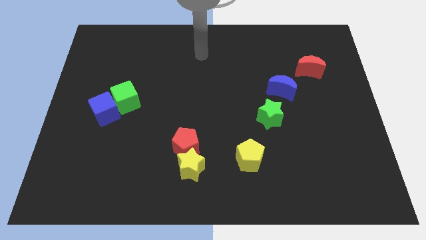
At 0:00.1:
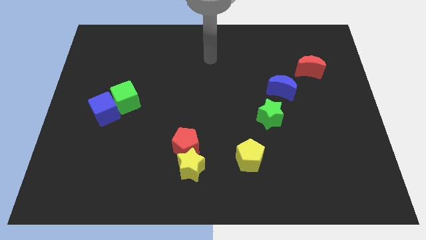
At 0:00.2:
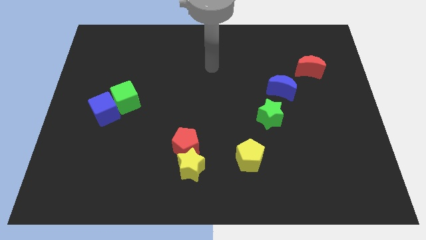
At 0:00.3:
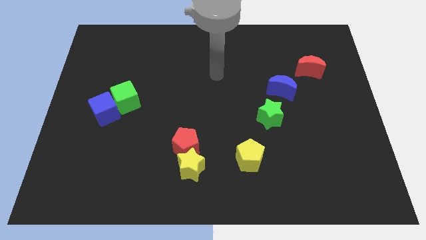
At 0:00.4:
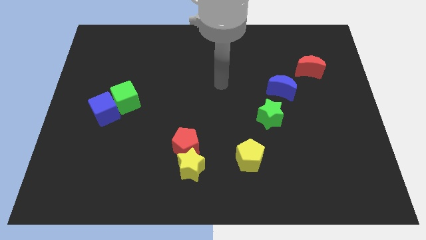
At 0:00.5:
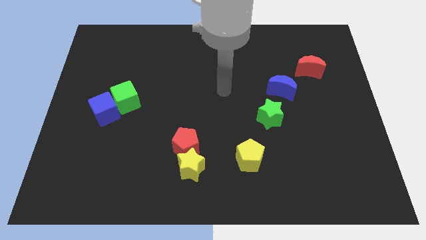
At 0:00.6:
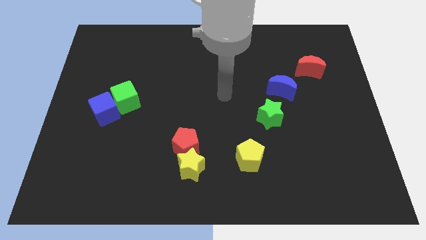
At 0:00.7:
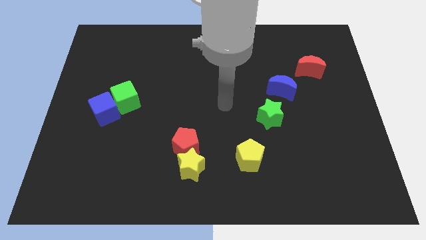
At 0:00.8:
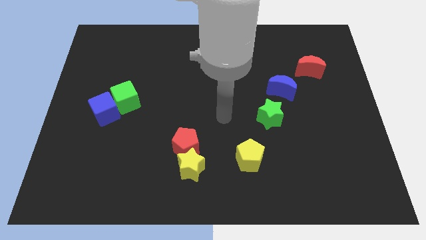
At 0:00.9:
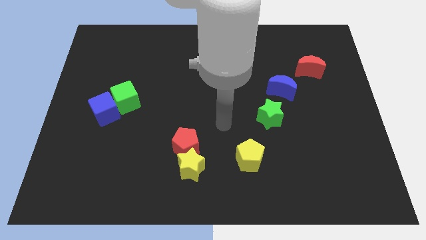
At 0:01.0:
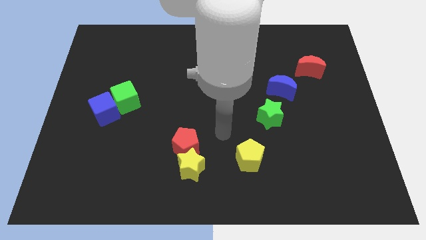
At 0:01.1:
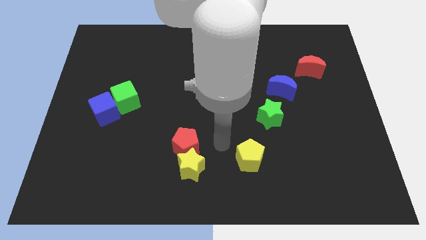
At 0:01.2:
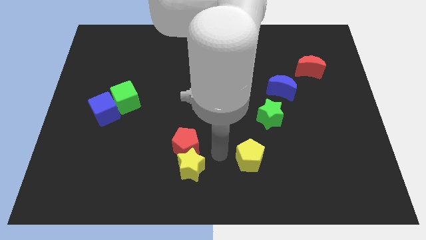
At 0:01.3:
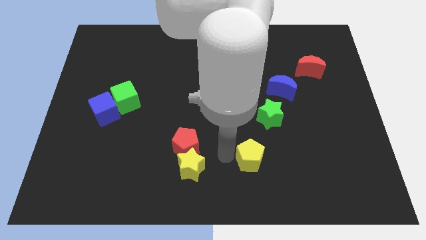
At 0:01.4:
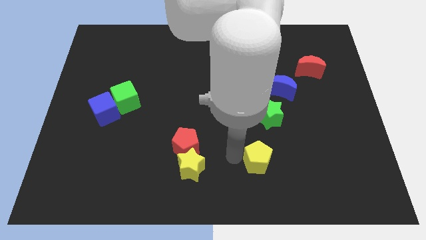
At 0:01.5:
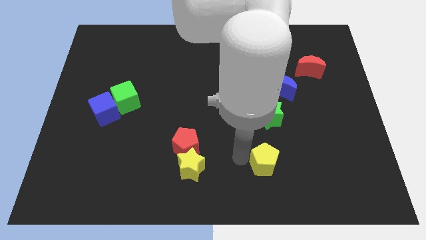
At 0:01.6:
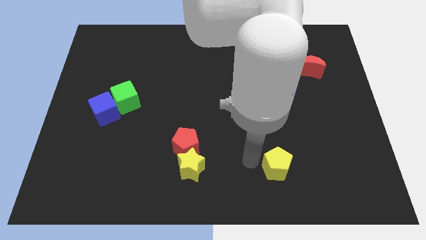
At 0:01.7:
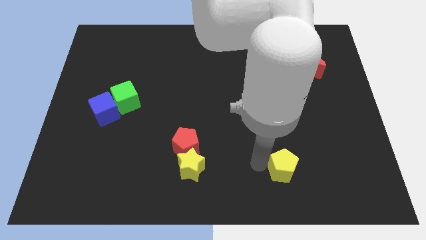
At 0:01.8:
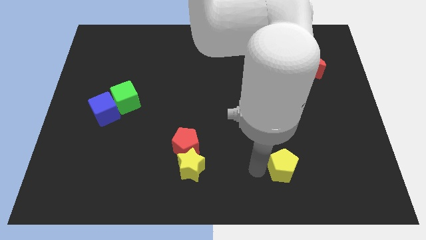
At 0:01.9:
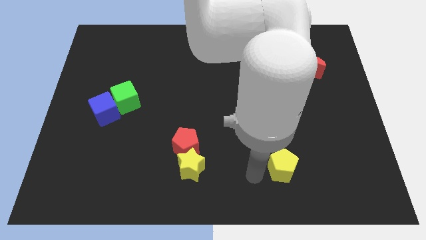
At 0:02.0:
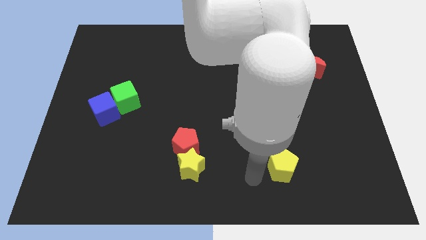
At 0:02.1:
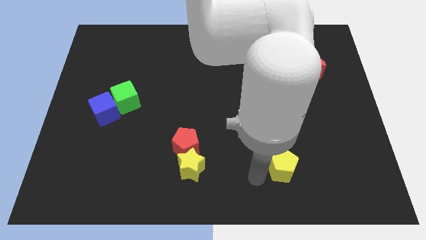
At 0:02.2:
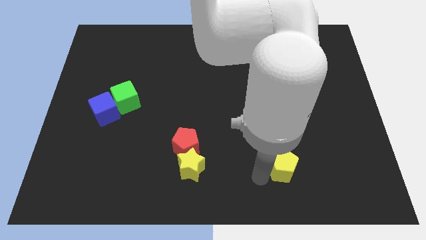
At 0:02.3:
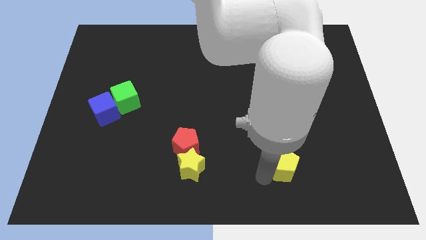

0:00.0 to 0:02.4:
push the yellow pentagon right a little bit

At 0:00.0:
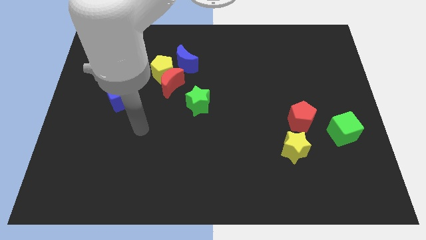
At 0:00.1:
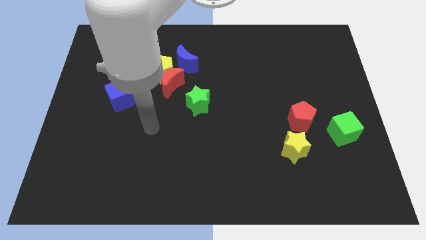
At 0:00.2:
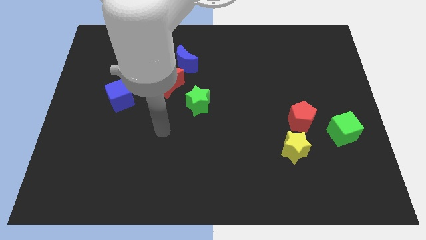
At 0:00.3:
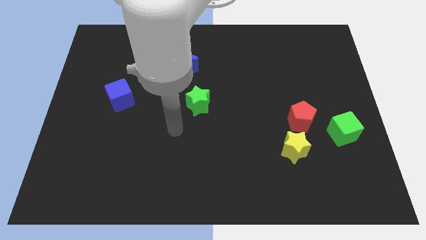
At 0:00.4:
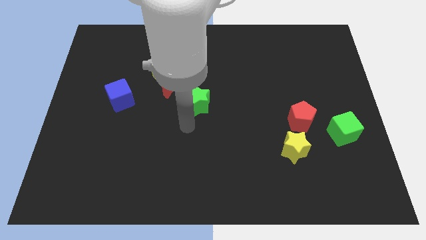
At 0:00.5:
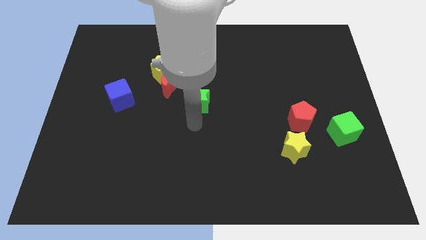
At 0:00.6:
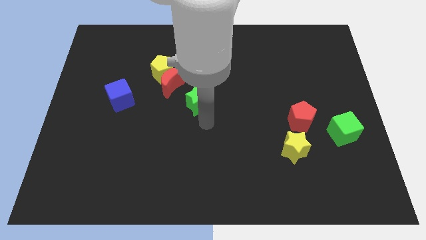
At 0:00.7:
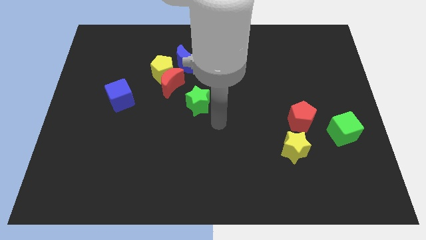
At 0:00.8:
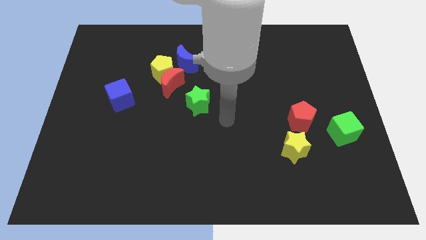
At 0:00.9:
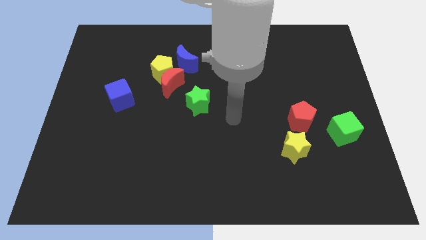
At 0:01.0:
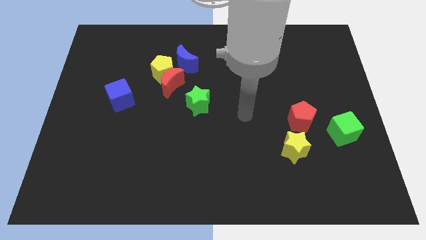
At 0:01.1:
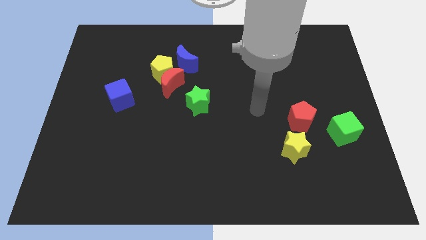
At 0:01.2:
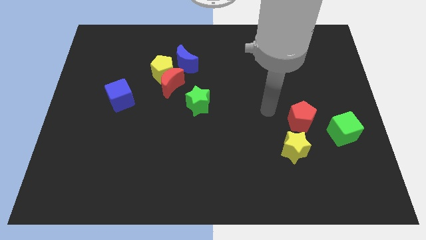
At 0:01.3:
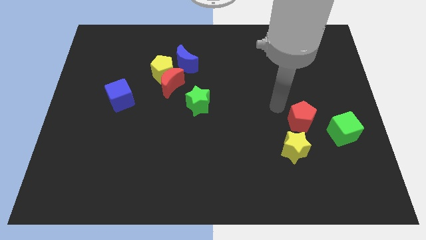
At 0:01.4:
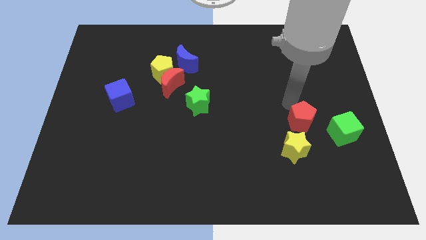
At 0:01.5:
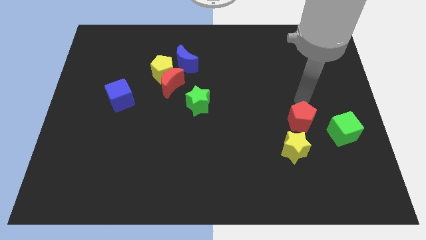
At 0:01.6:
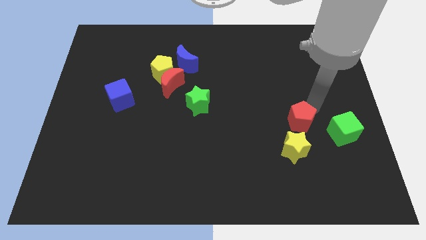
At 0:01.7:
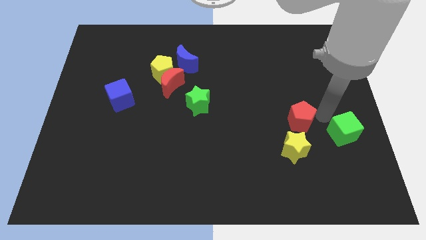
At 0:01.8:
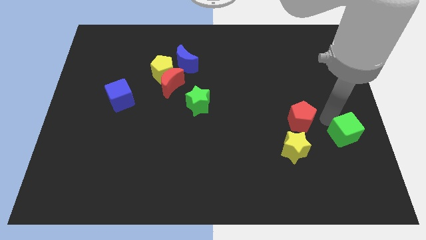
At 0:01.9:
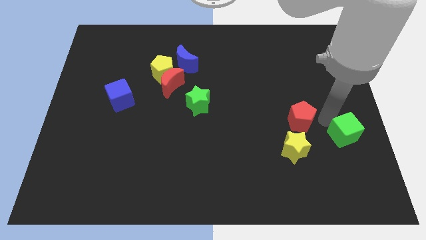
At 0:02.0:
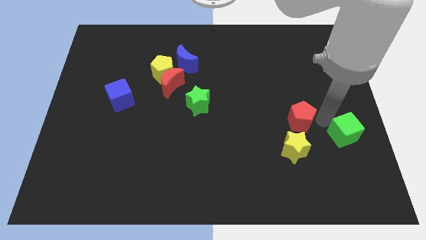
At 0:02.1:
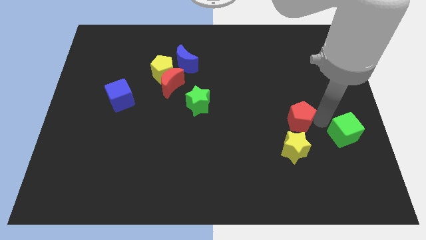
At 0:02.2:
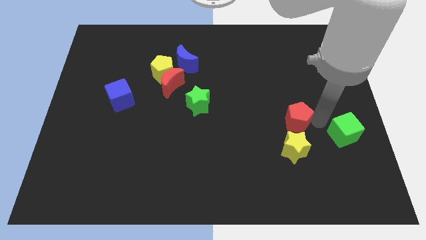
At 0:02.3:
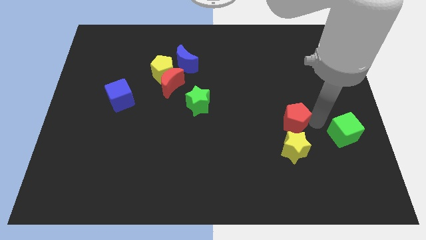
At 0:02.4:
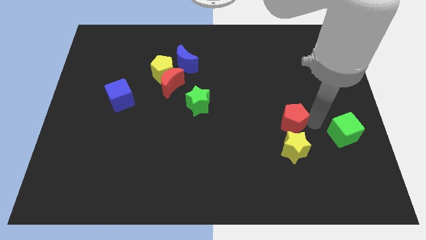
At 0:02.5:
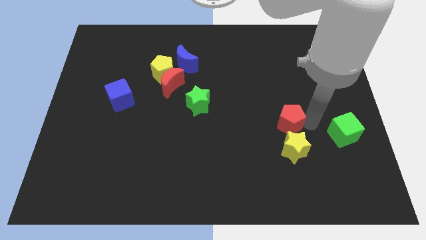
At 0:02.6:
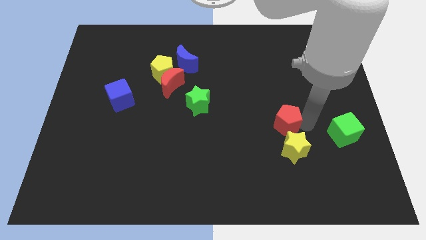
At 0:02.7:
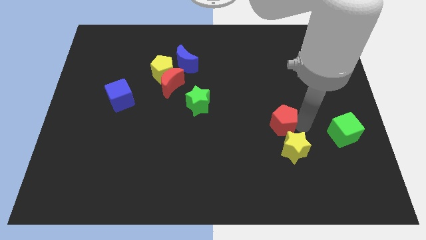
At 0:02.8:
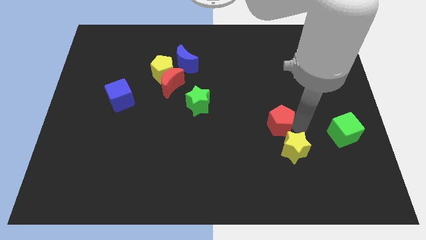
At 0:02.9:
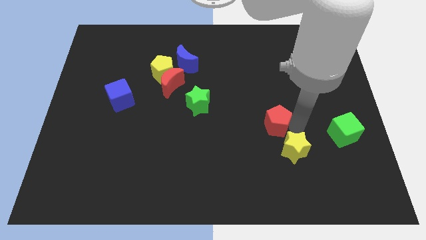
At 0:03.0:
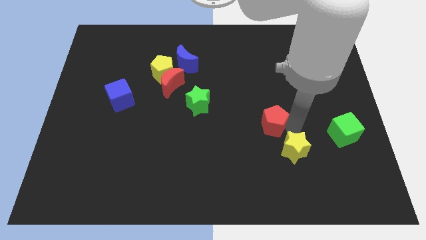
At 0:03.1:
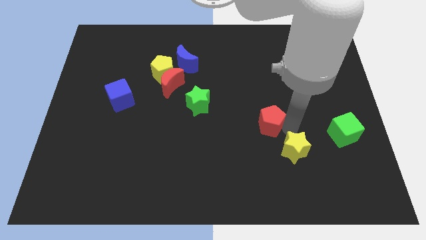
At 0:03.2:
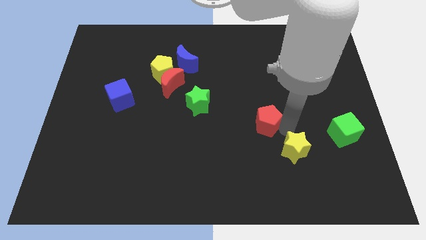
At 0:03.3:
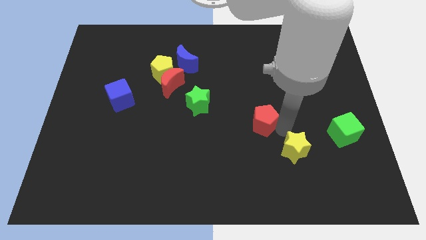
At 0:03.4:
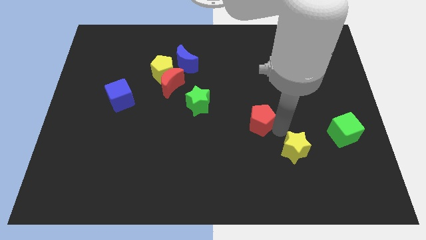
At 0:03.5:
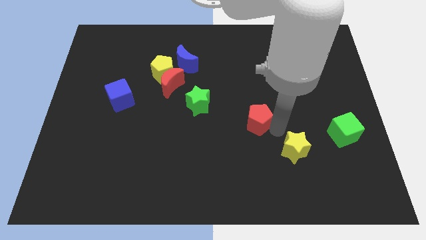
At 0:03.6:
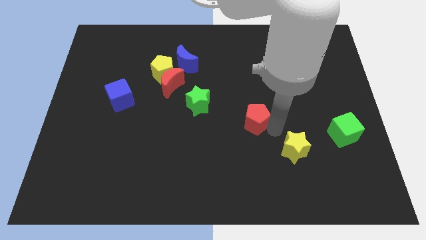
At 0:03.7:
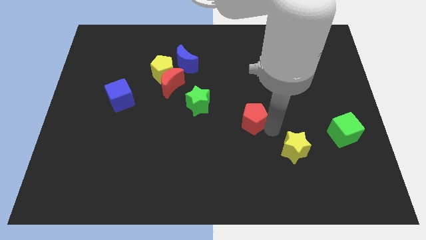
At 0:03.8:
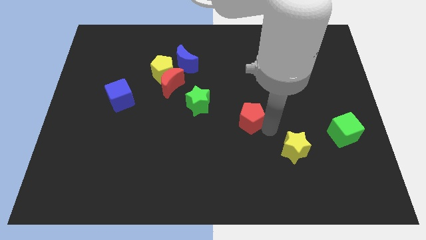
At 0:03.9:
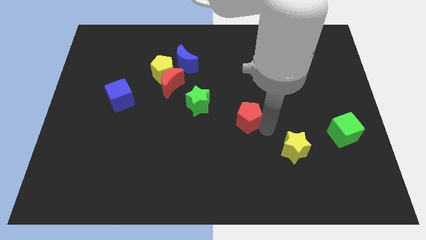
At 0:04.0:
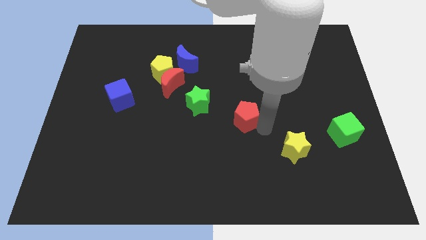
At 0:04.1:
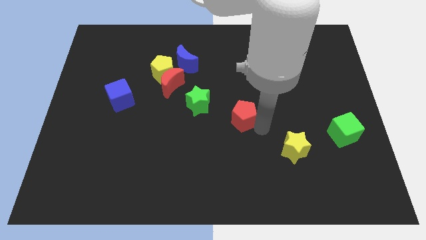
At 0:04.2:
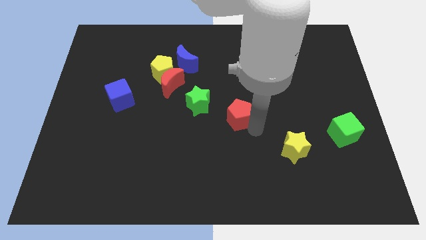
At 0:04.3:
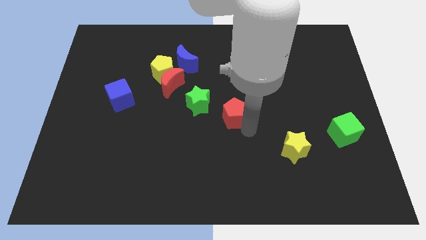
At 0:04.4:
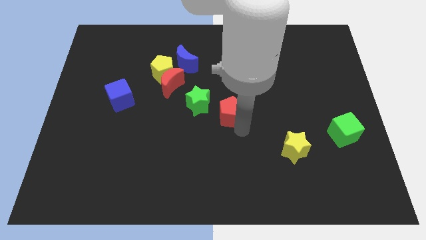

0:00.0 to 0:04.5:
slightly move the red pentagon upwards and to the left

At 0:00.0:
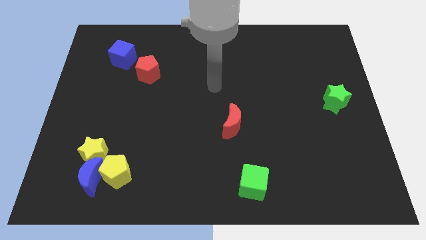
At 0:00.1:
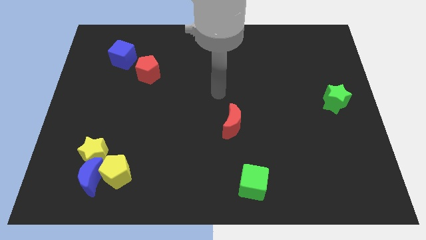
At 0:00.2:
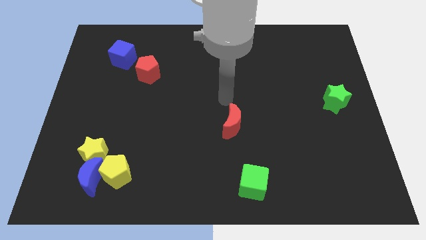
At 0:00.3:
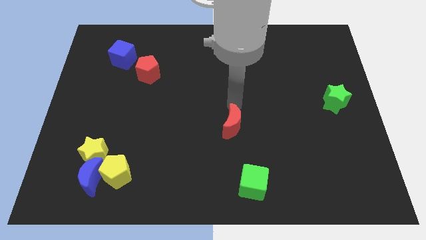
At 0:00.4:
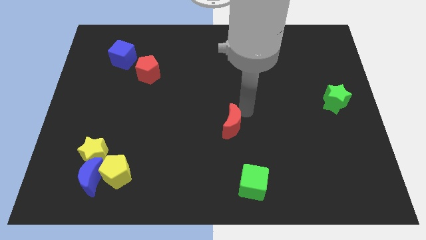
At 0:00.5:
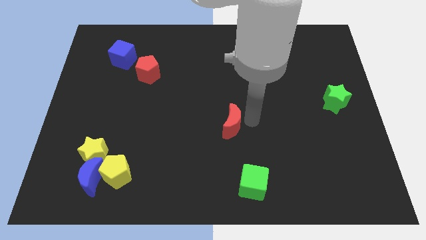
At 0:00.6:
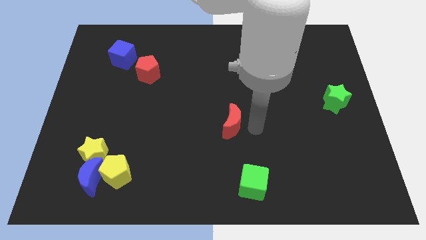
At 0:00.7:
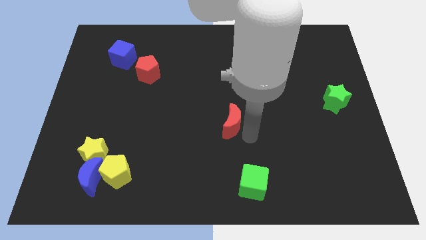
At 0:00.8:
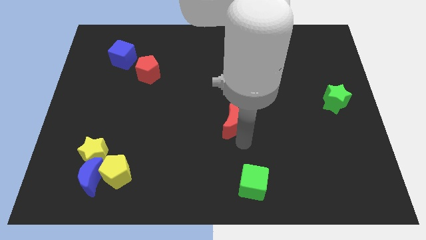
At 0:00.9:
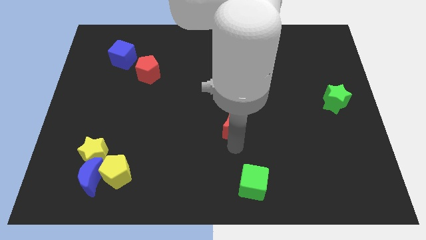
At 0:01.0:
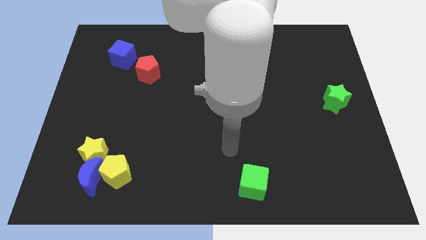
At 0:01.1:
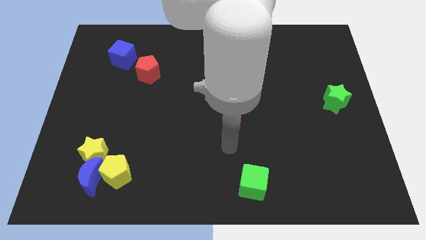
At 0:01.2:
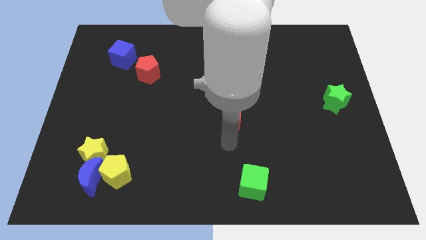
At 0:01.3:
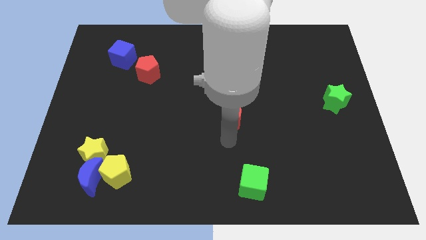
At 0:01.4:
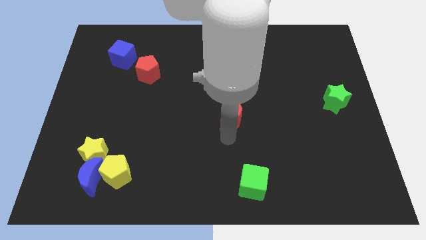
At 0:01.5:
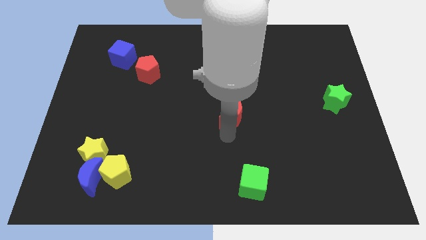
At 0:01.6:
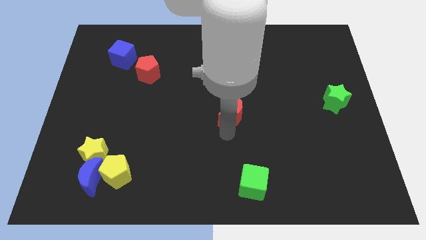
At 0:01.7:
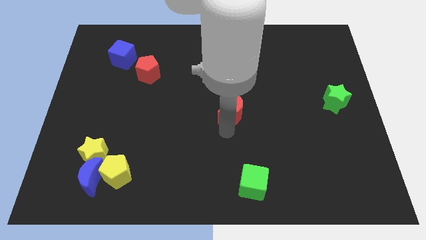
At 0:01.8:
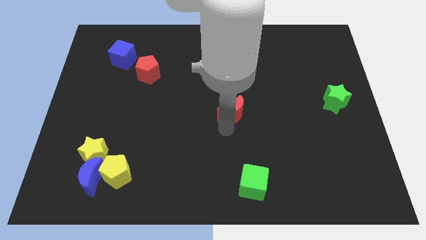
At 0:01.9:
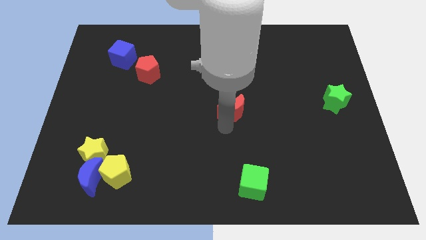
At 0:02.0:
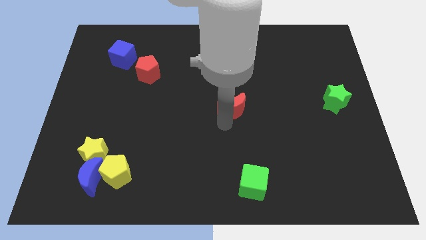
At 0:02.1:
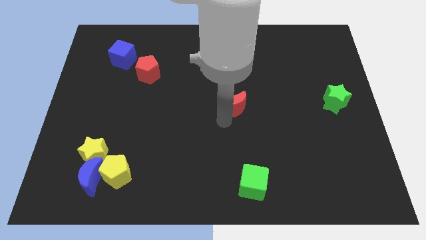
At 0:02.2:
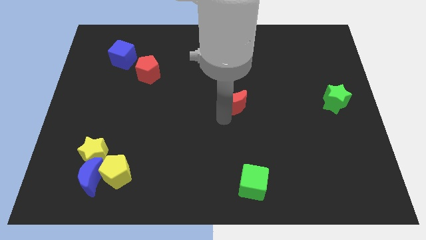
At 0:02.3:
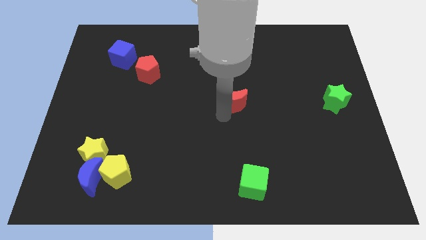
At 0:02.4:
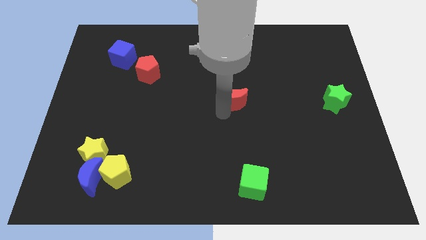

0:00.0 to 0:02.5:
push the red moon somewhat upwards
